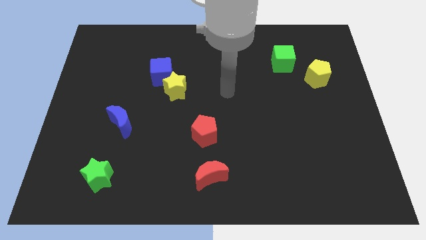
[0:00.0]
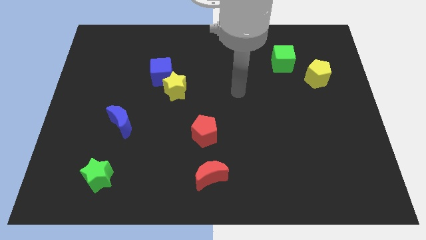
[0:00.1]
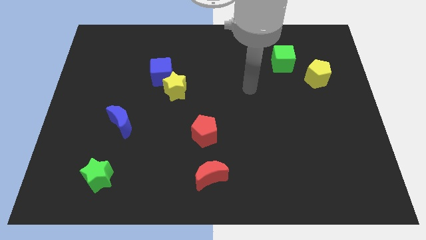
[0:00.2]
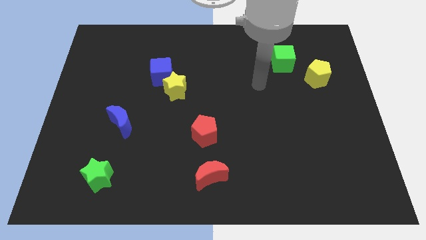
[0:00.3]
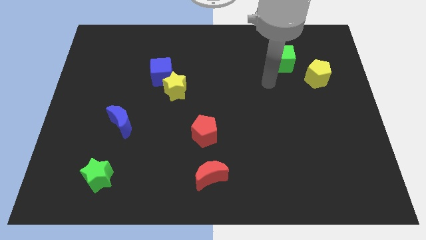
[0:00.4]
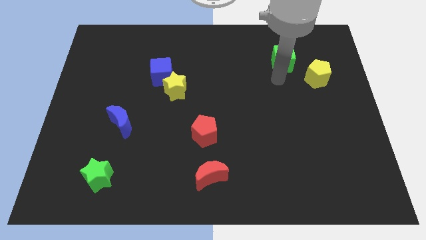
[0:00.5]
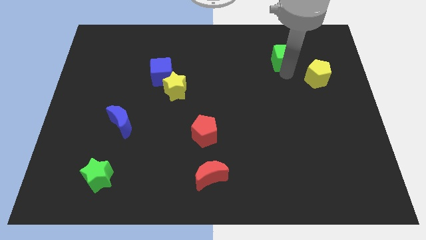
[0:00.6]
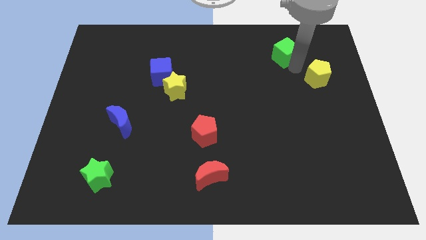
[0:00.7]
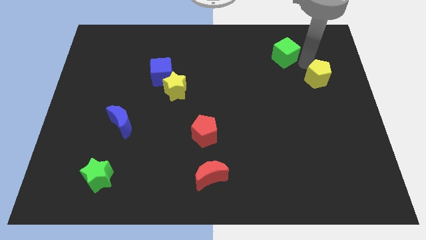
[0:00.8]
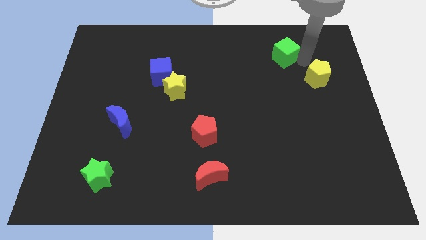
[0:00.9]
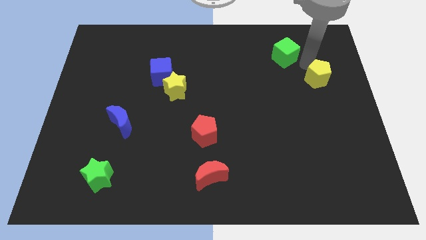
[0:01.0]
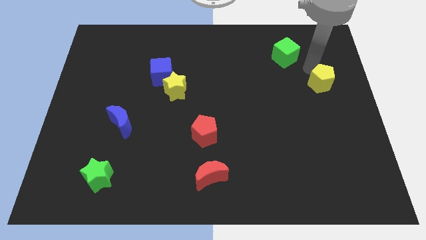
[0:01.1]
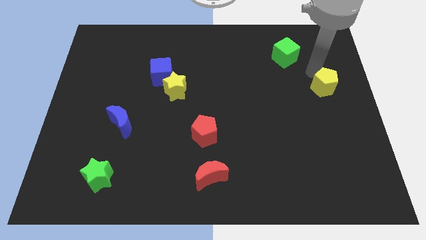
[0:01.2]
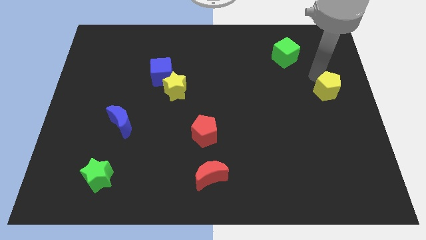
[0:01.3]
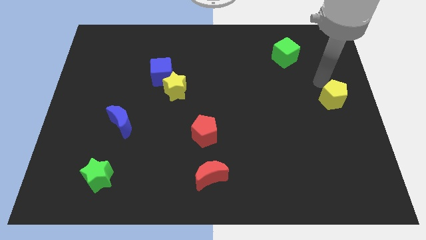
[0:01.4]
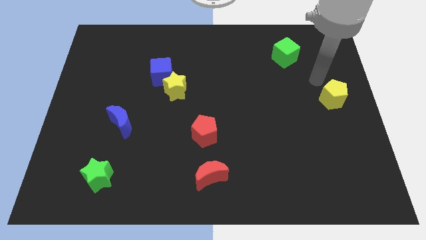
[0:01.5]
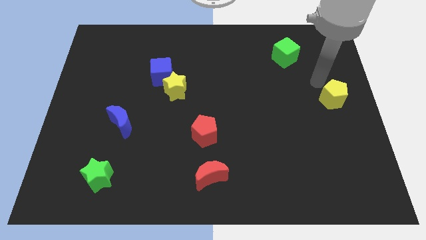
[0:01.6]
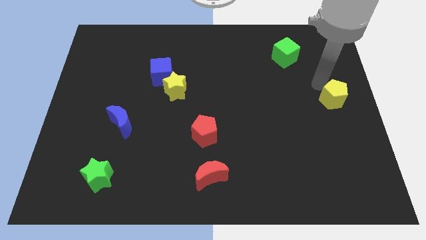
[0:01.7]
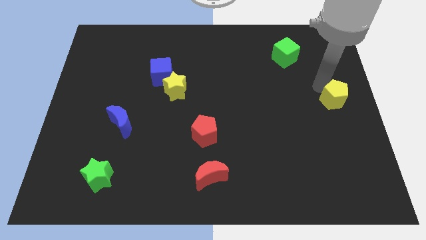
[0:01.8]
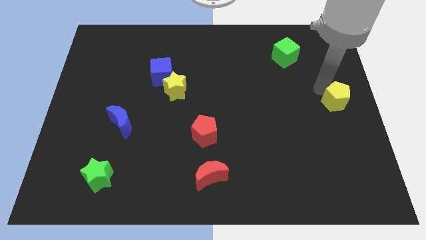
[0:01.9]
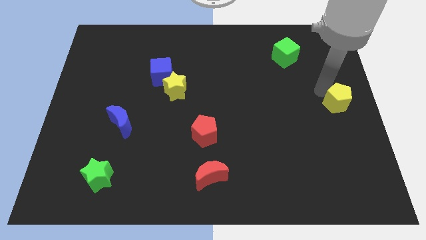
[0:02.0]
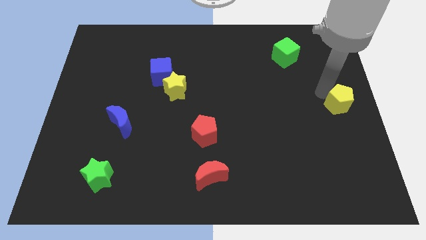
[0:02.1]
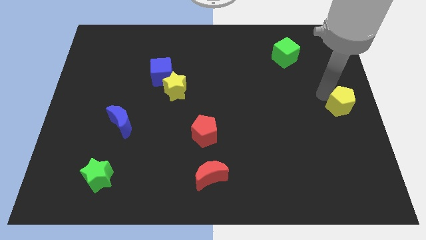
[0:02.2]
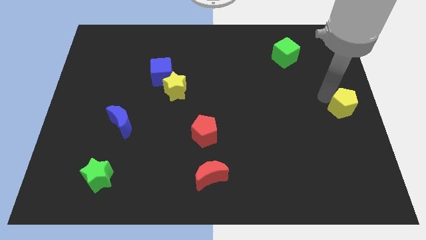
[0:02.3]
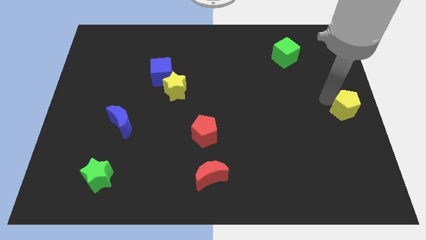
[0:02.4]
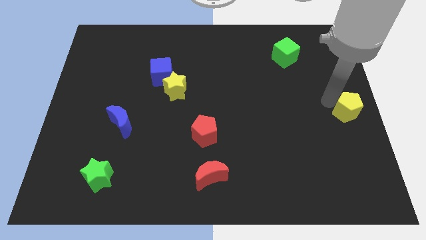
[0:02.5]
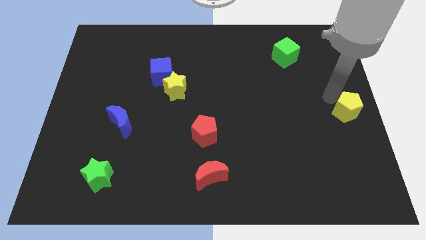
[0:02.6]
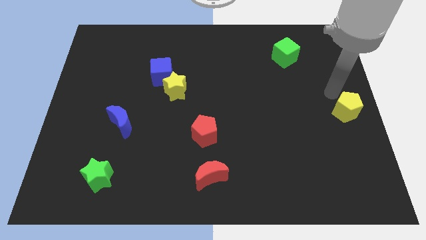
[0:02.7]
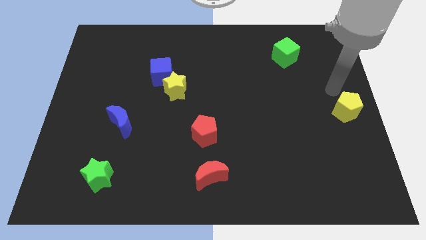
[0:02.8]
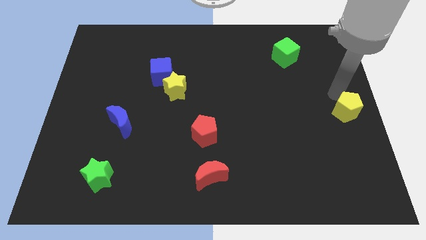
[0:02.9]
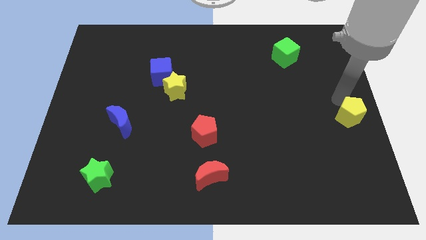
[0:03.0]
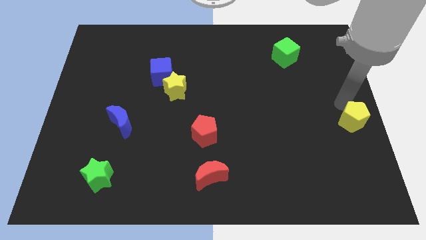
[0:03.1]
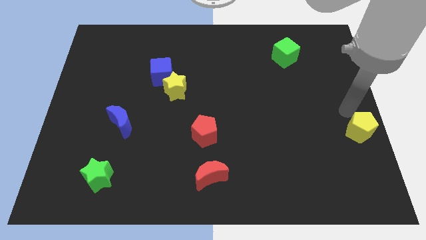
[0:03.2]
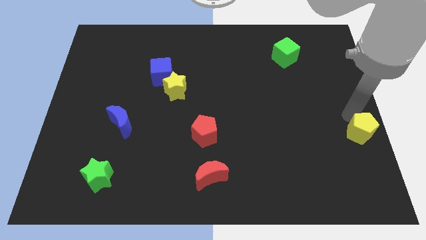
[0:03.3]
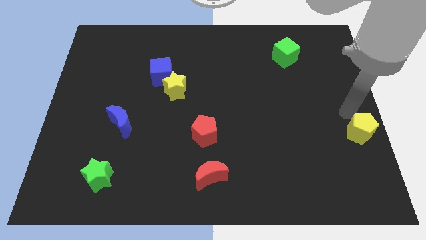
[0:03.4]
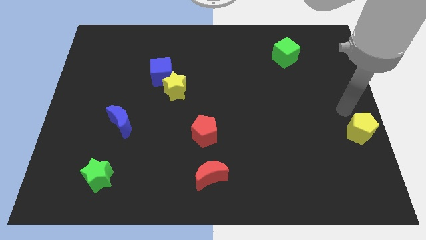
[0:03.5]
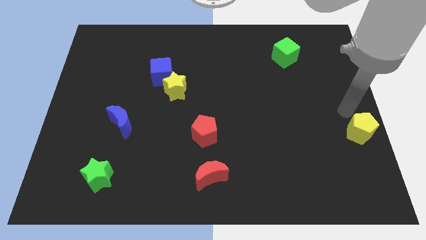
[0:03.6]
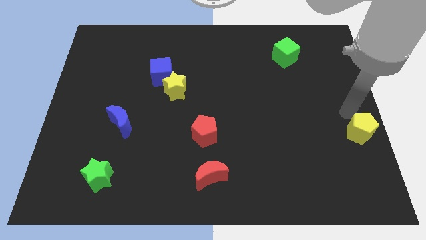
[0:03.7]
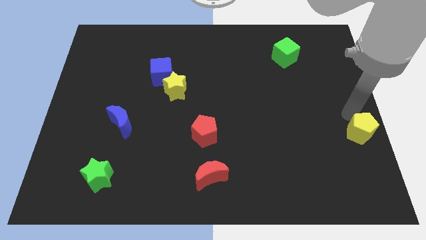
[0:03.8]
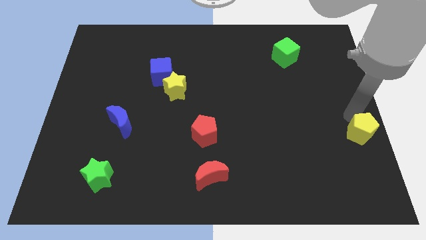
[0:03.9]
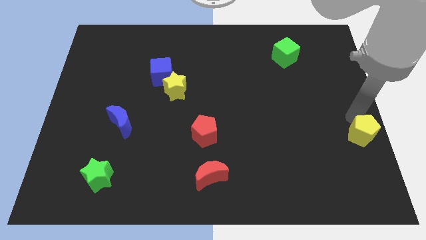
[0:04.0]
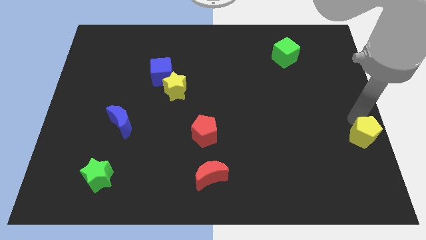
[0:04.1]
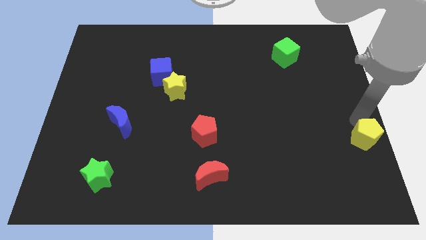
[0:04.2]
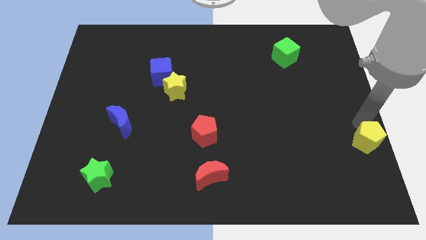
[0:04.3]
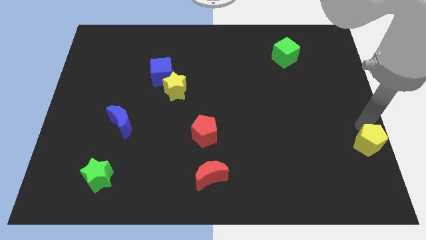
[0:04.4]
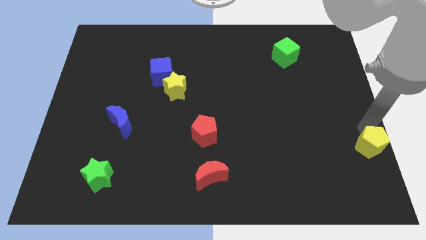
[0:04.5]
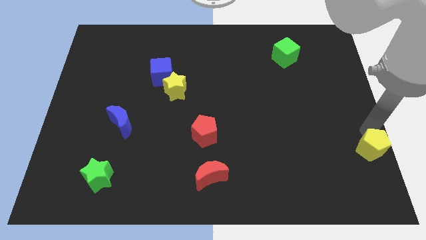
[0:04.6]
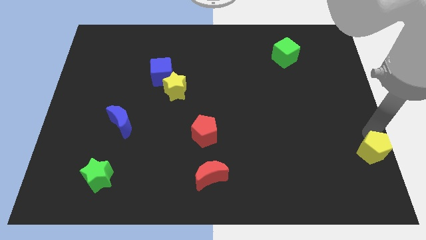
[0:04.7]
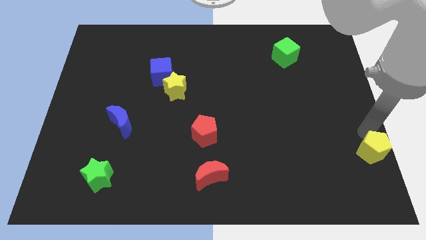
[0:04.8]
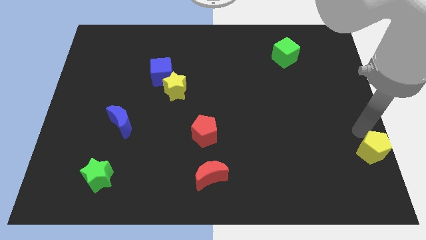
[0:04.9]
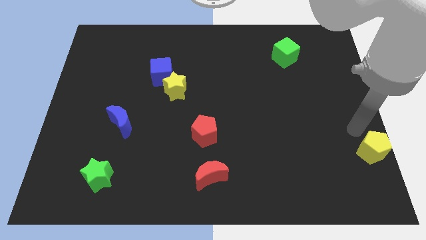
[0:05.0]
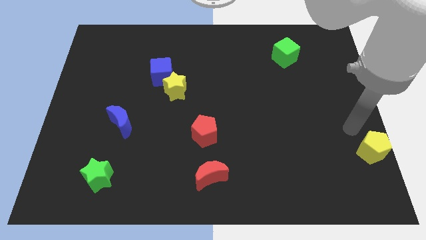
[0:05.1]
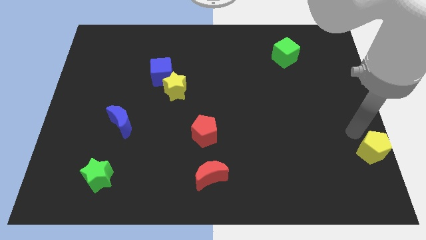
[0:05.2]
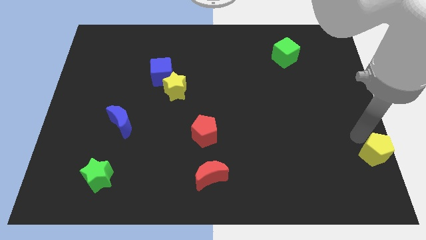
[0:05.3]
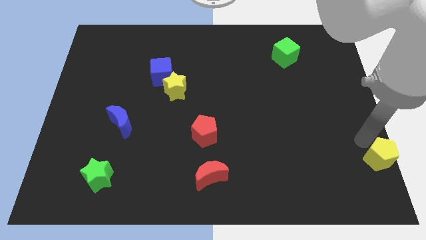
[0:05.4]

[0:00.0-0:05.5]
put the yellow pentagon to the bottom right of the board
